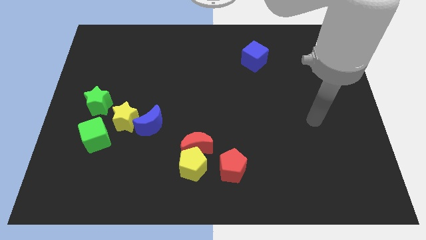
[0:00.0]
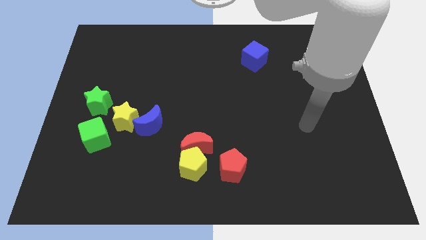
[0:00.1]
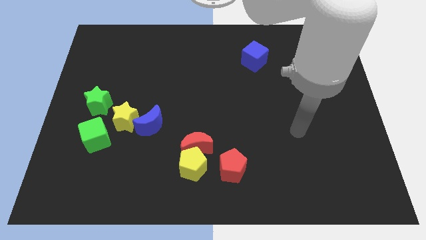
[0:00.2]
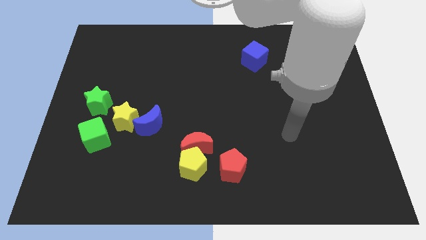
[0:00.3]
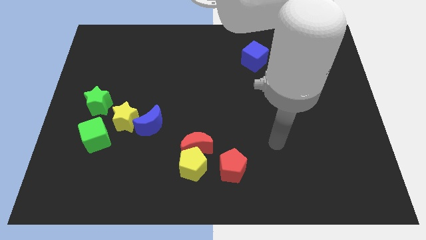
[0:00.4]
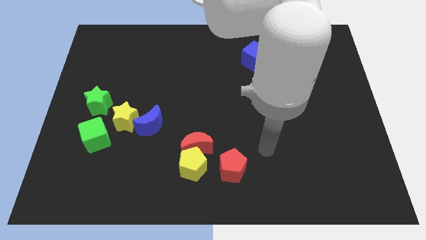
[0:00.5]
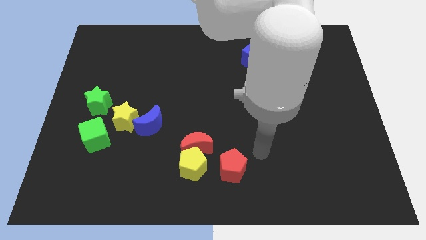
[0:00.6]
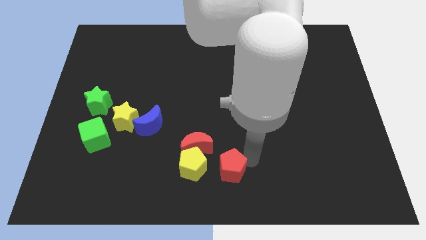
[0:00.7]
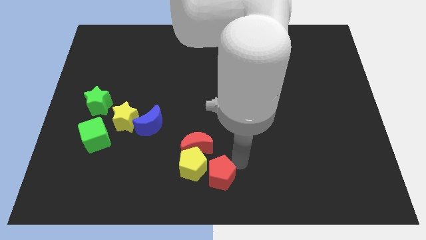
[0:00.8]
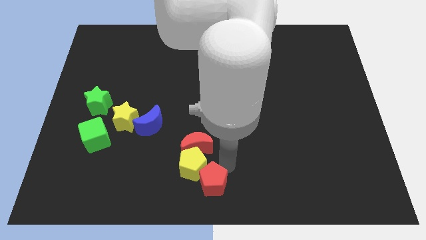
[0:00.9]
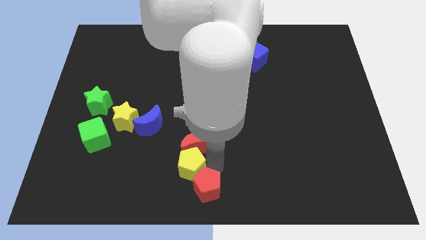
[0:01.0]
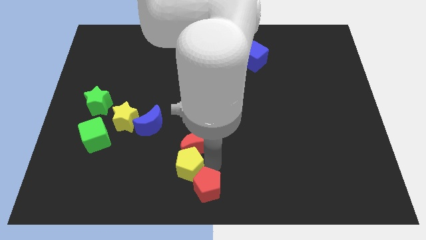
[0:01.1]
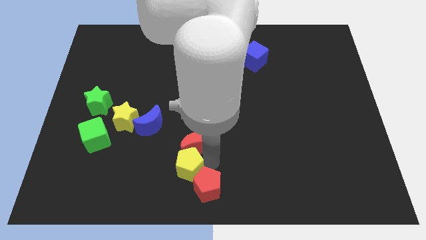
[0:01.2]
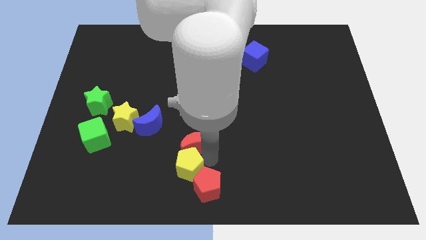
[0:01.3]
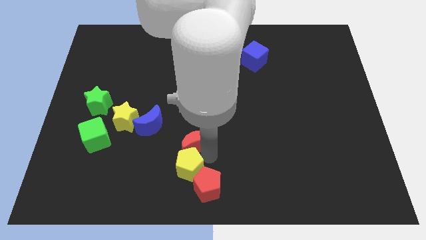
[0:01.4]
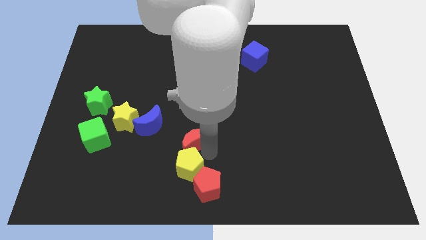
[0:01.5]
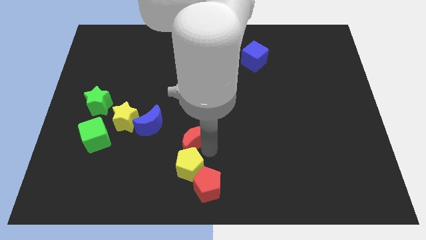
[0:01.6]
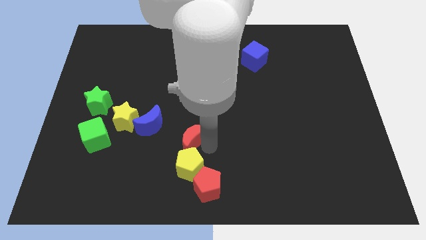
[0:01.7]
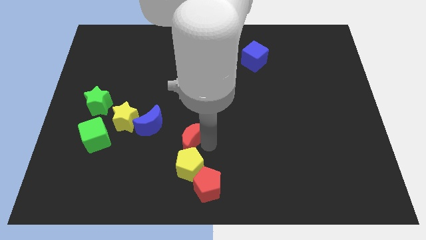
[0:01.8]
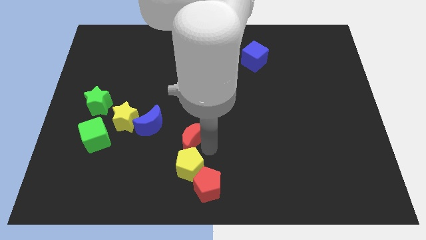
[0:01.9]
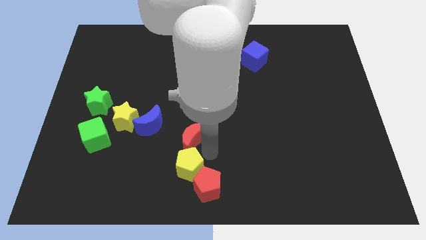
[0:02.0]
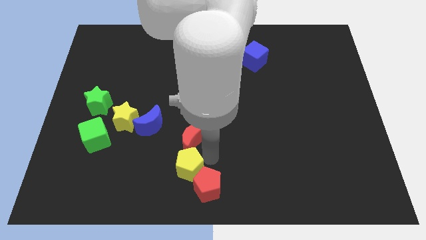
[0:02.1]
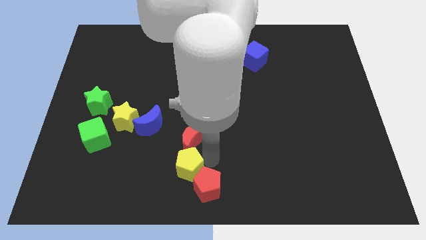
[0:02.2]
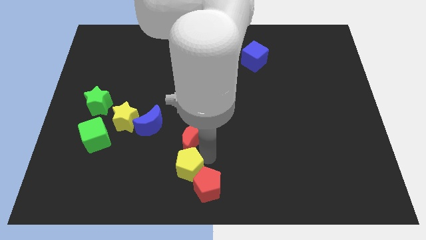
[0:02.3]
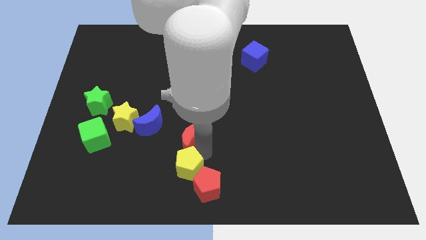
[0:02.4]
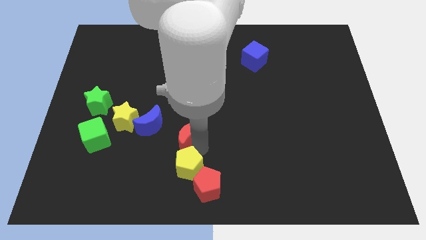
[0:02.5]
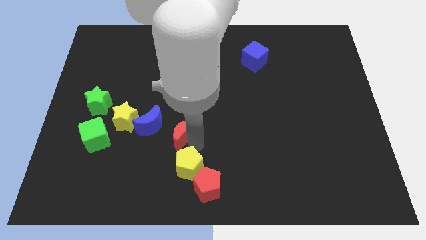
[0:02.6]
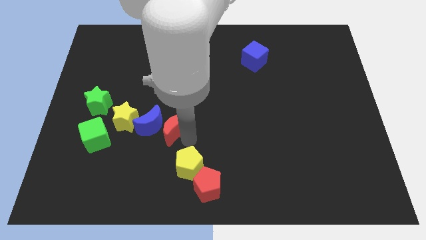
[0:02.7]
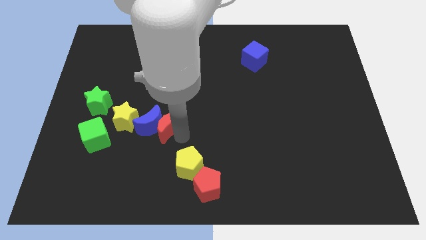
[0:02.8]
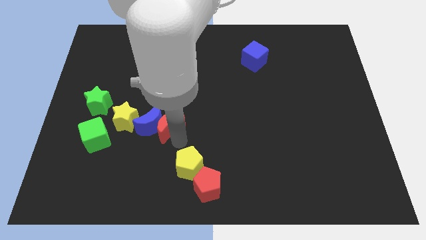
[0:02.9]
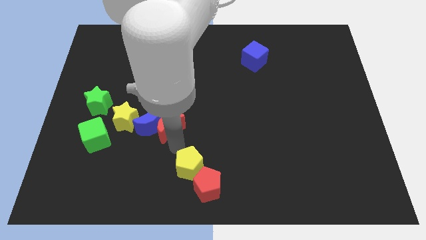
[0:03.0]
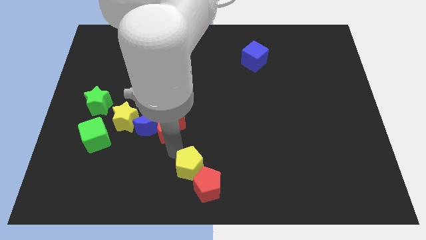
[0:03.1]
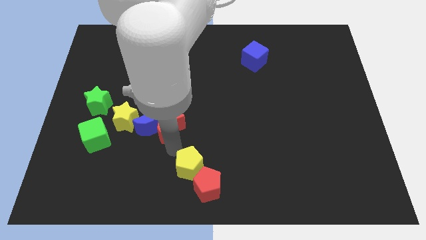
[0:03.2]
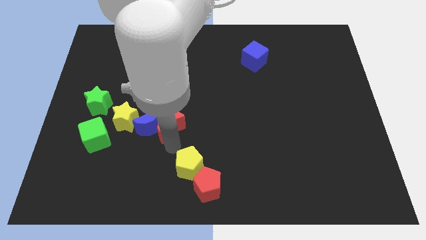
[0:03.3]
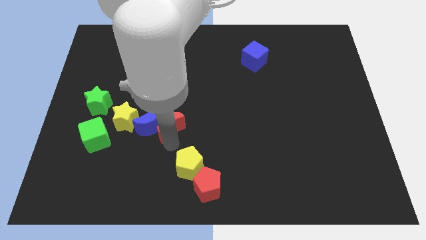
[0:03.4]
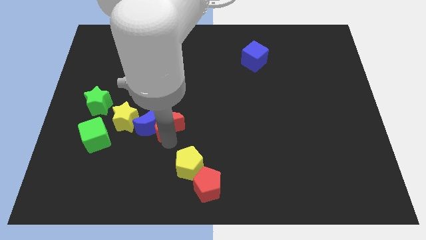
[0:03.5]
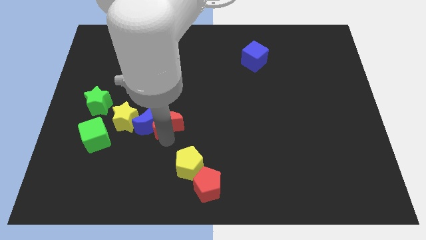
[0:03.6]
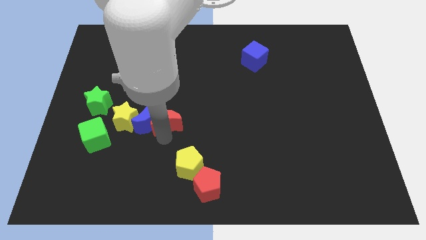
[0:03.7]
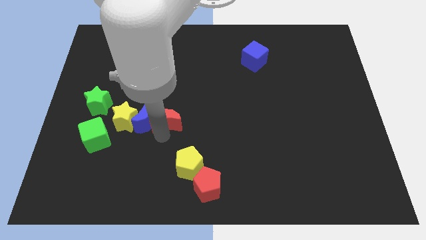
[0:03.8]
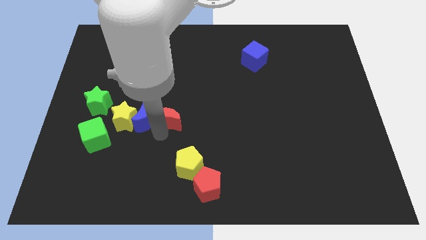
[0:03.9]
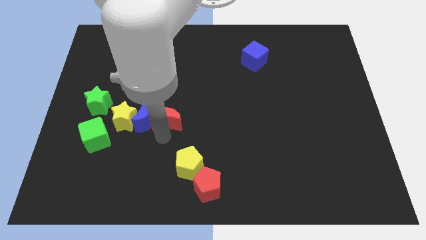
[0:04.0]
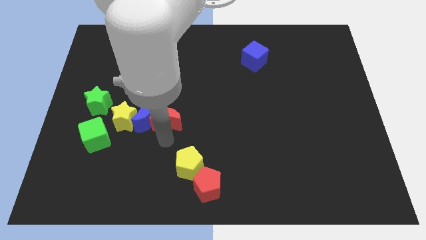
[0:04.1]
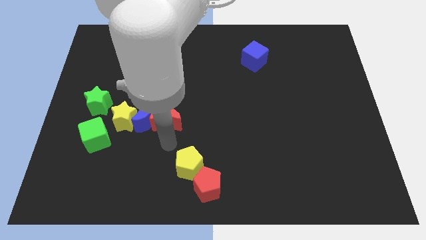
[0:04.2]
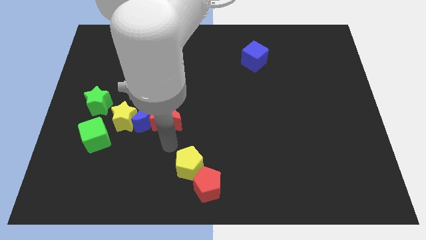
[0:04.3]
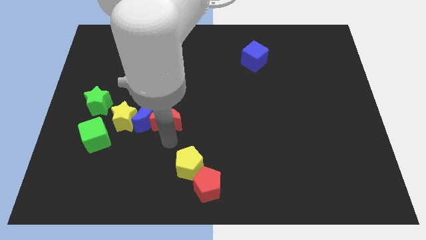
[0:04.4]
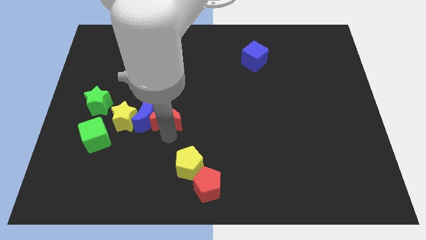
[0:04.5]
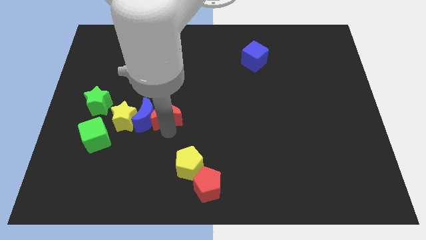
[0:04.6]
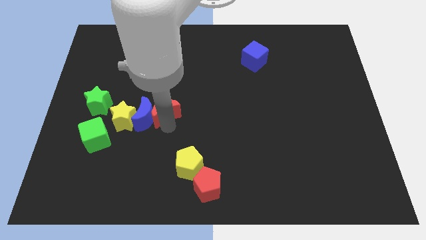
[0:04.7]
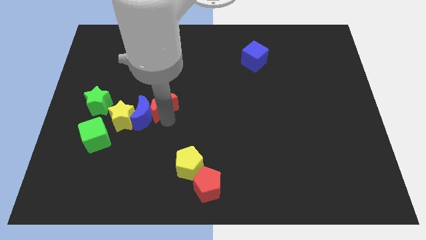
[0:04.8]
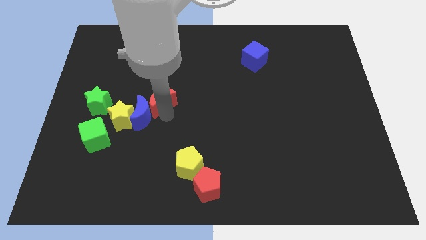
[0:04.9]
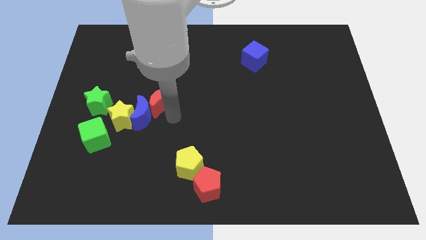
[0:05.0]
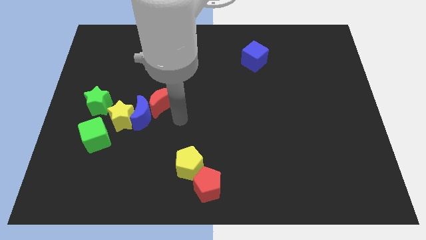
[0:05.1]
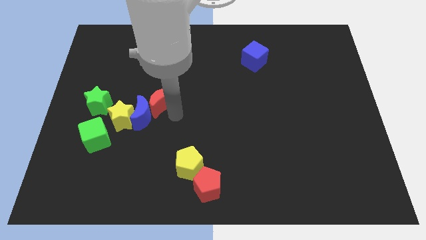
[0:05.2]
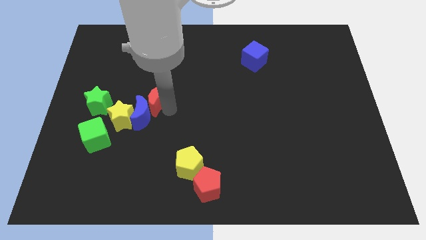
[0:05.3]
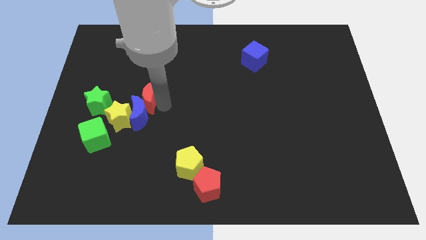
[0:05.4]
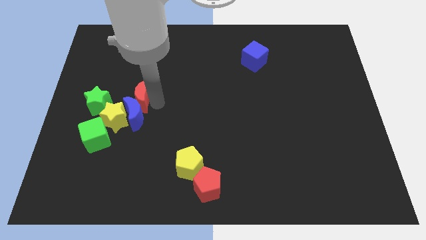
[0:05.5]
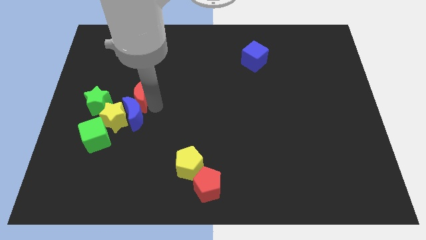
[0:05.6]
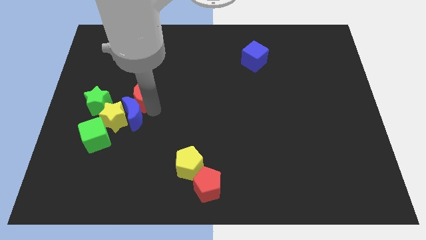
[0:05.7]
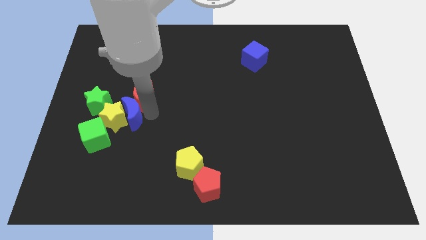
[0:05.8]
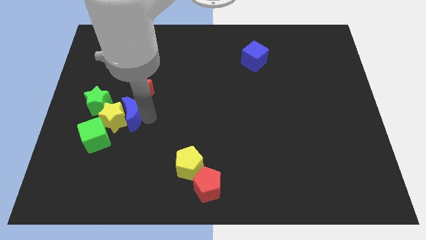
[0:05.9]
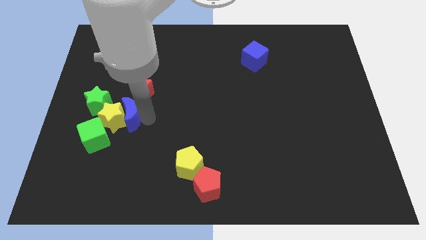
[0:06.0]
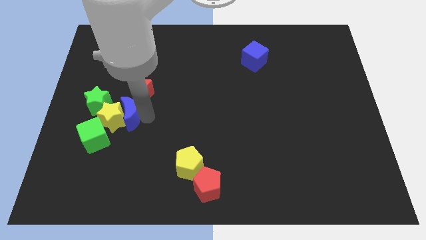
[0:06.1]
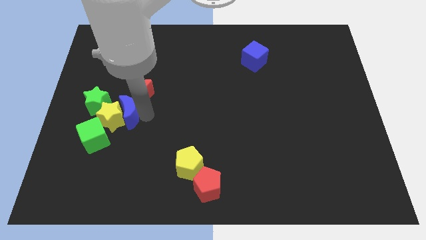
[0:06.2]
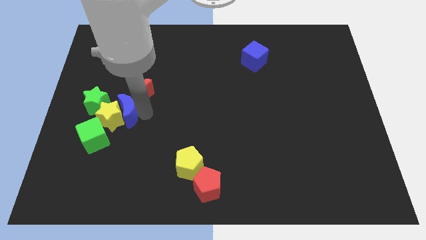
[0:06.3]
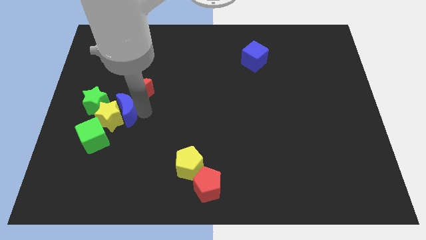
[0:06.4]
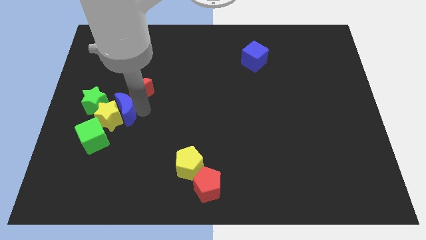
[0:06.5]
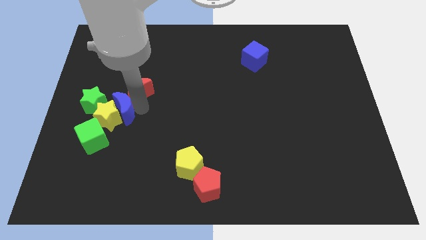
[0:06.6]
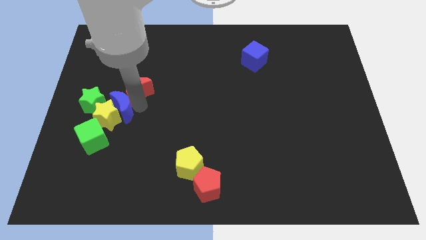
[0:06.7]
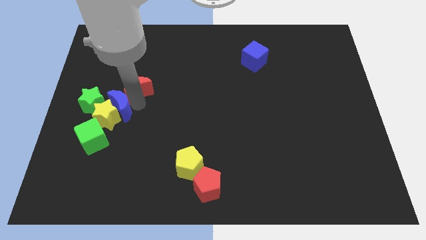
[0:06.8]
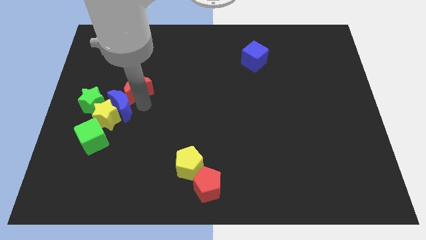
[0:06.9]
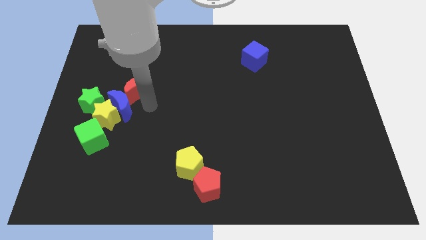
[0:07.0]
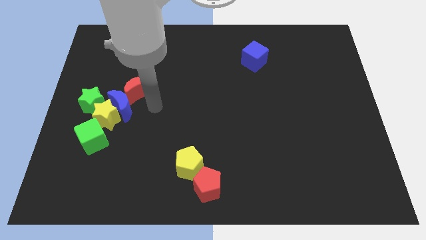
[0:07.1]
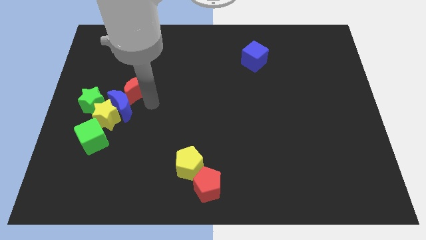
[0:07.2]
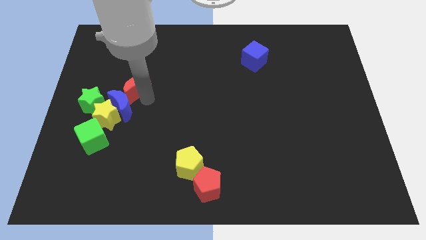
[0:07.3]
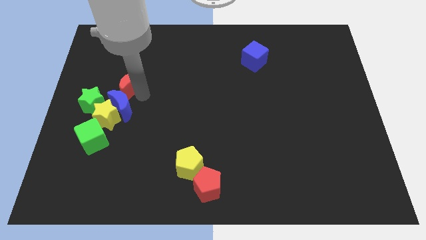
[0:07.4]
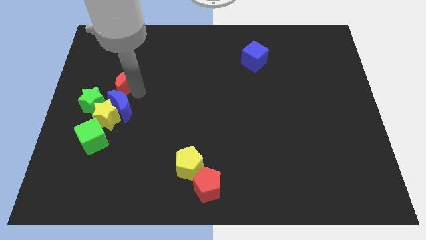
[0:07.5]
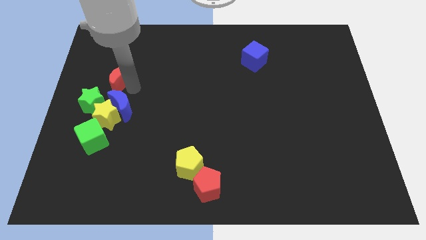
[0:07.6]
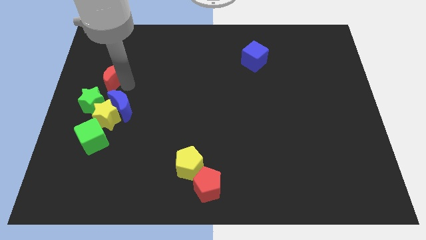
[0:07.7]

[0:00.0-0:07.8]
move the red moon to the top of the green star
